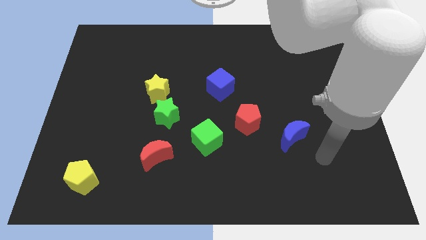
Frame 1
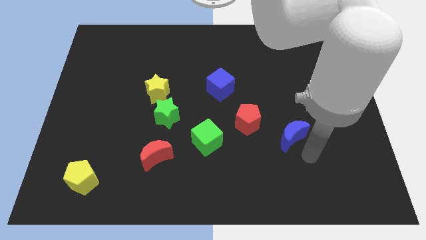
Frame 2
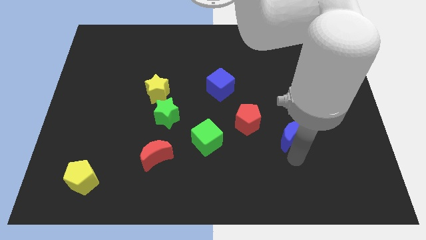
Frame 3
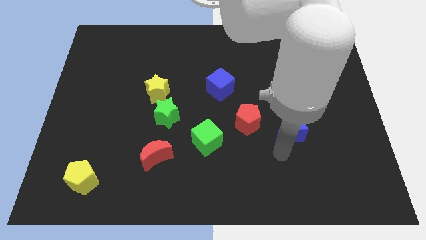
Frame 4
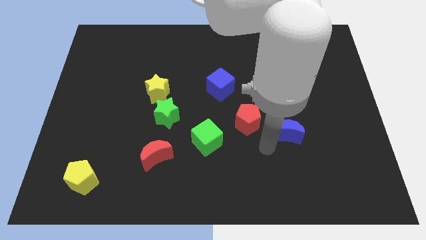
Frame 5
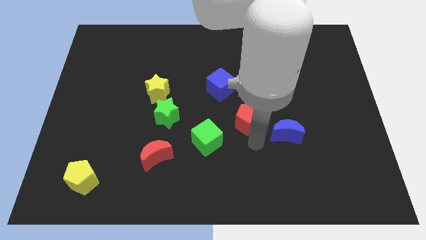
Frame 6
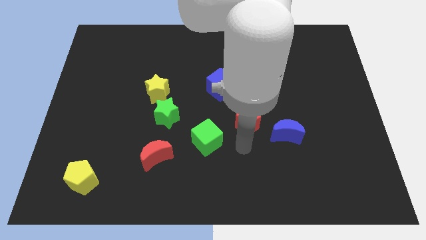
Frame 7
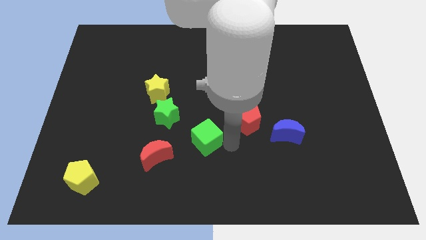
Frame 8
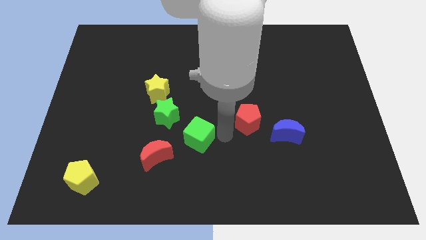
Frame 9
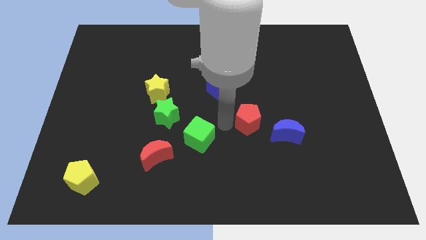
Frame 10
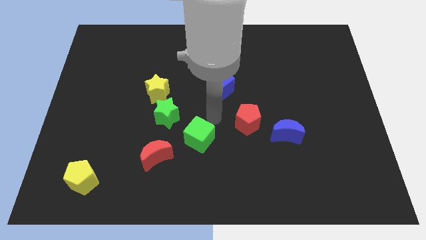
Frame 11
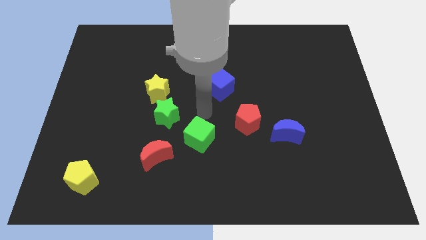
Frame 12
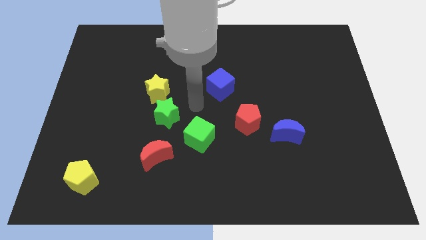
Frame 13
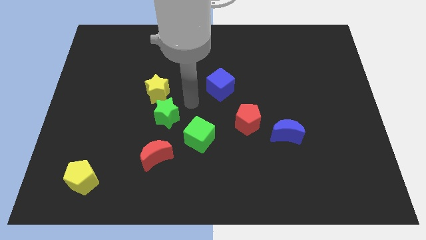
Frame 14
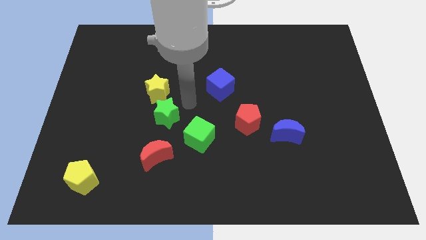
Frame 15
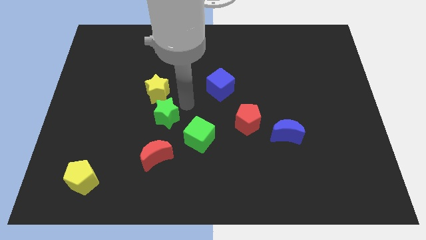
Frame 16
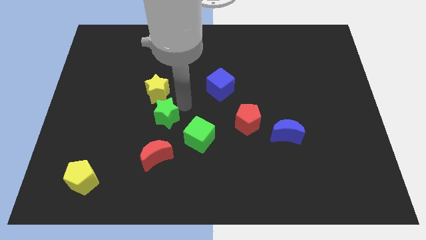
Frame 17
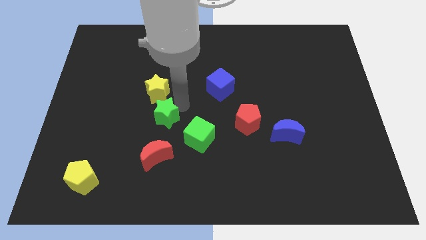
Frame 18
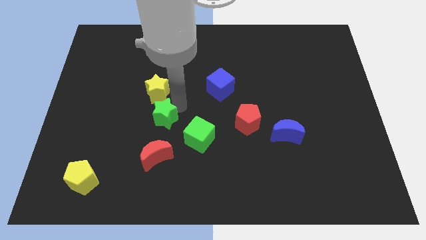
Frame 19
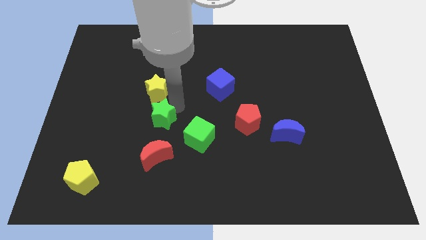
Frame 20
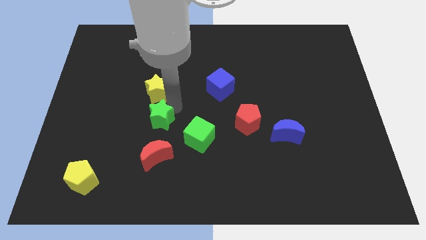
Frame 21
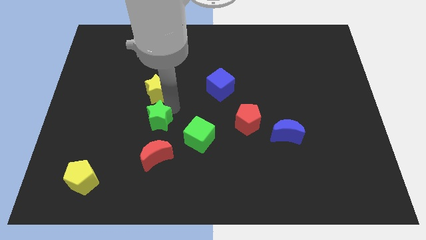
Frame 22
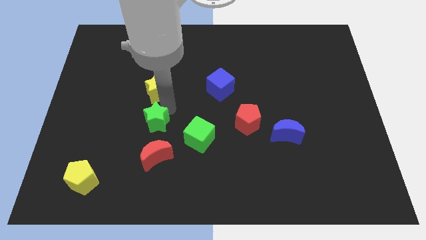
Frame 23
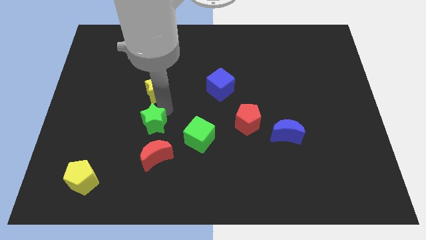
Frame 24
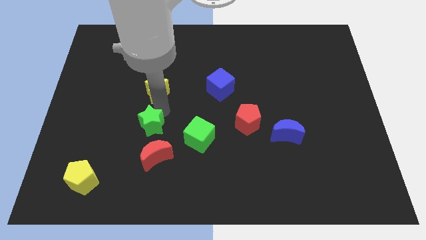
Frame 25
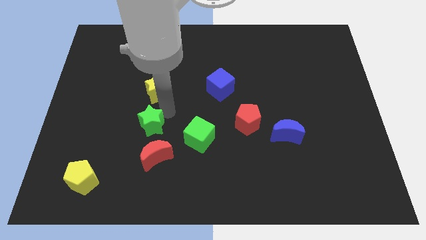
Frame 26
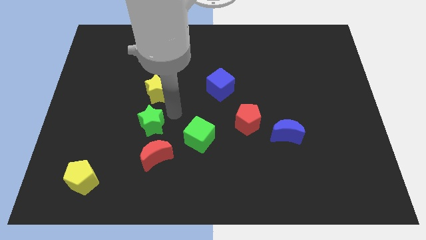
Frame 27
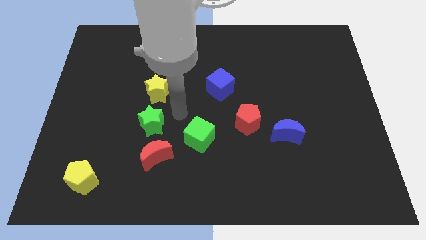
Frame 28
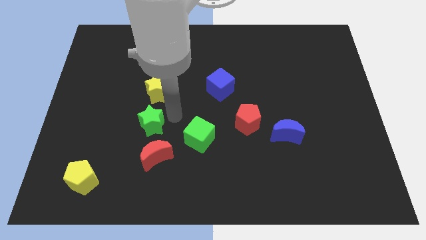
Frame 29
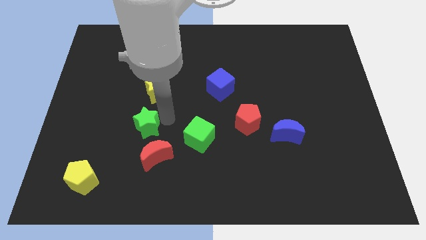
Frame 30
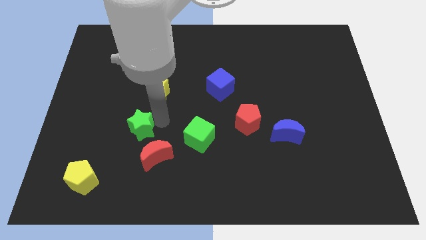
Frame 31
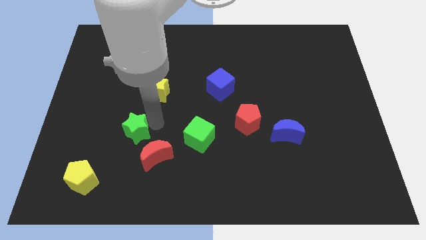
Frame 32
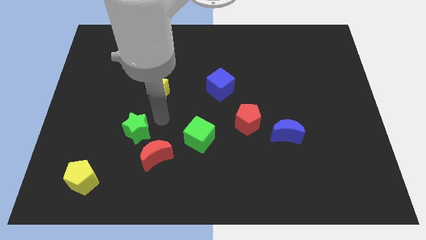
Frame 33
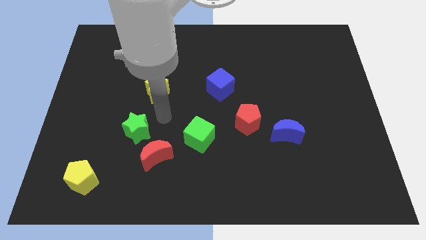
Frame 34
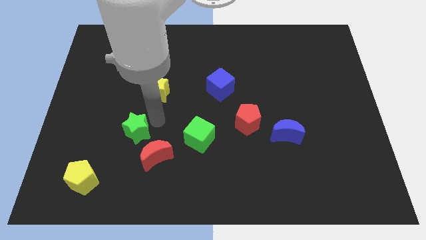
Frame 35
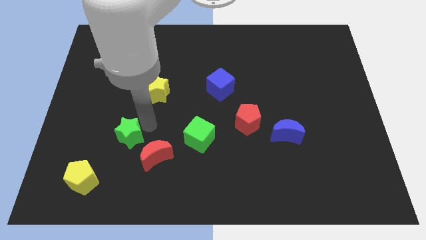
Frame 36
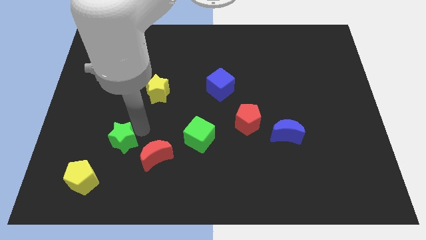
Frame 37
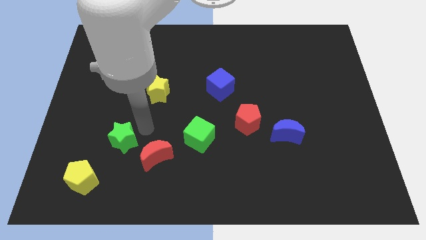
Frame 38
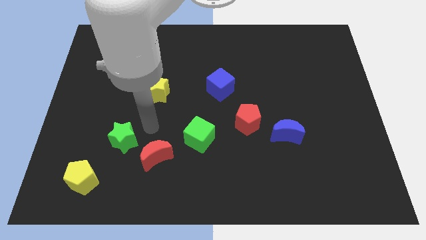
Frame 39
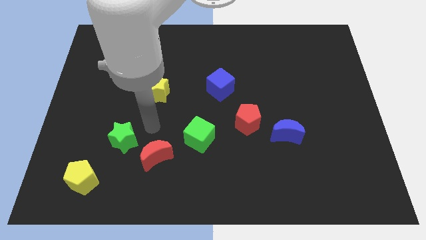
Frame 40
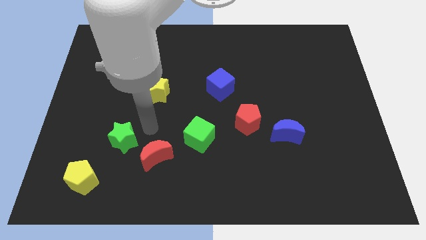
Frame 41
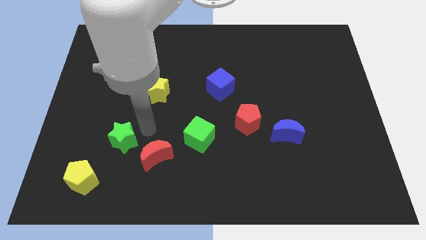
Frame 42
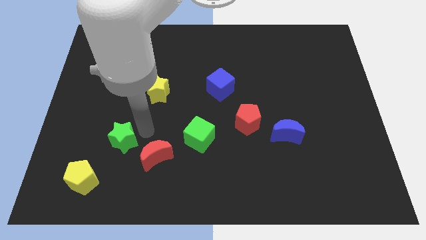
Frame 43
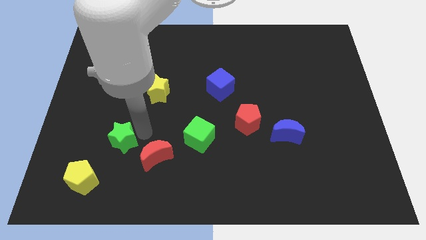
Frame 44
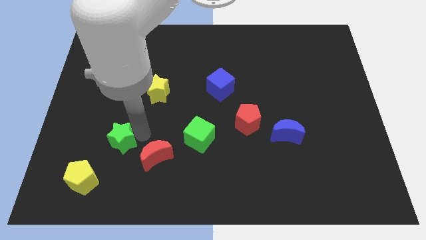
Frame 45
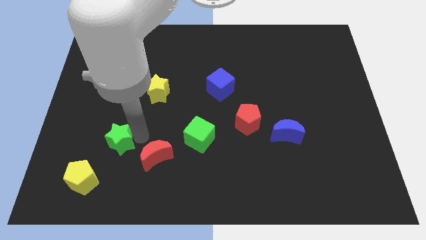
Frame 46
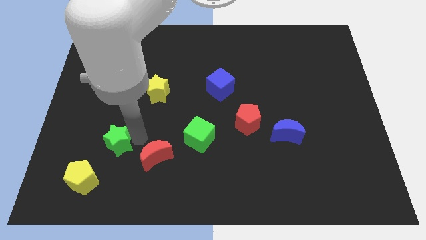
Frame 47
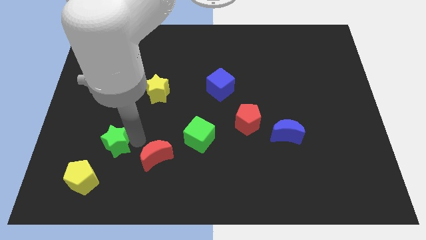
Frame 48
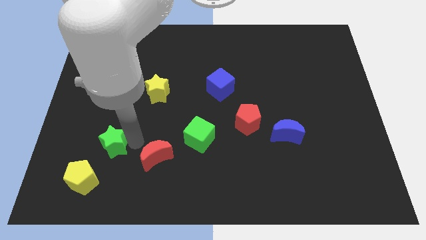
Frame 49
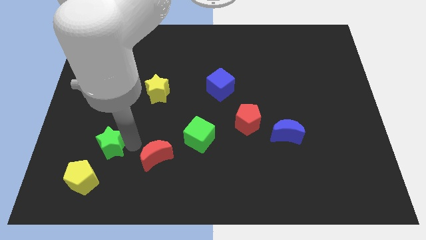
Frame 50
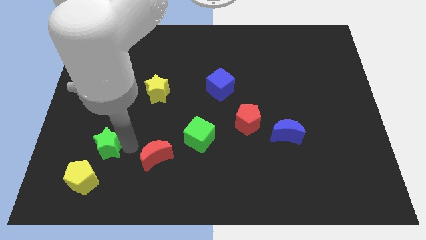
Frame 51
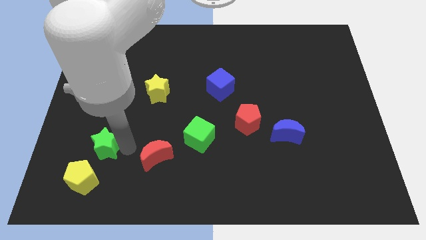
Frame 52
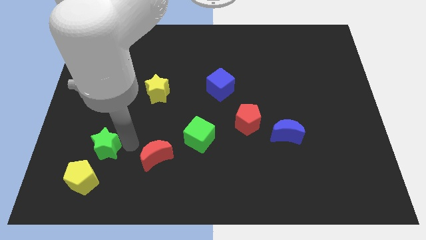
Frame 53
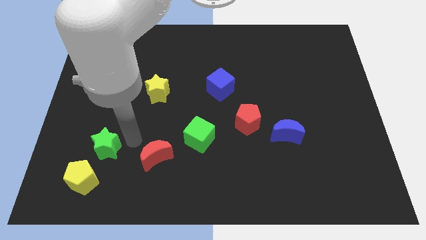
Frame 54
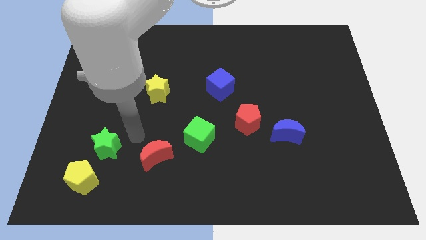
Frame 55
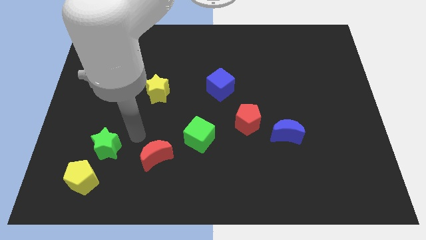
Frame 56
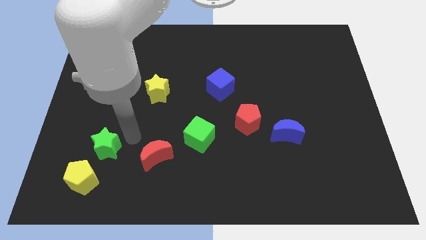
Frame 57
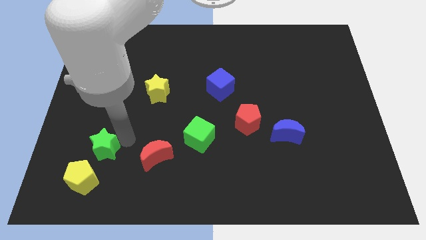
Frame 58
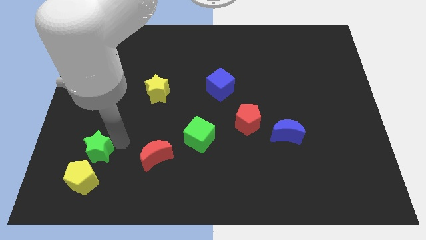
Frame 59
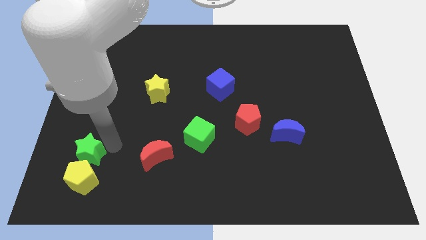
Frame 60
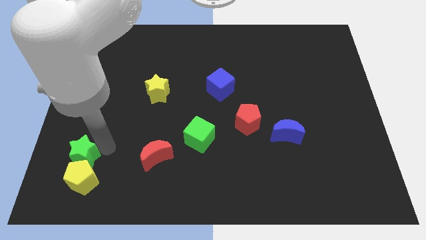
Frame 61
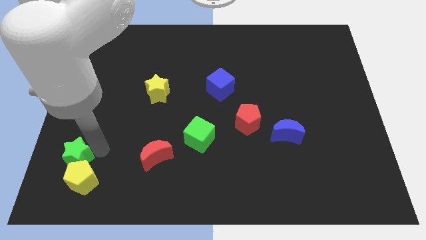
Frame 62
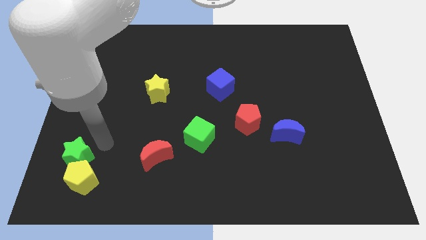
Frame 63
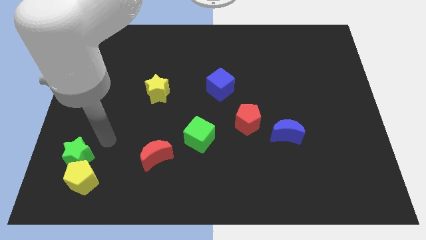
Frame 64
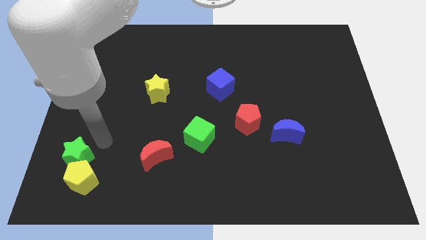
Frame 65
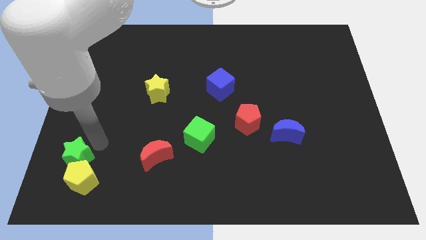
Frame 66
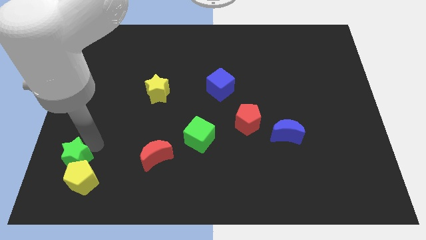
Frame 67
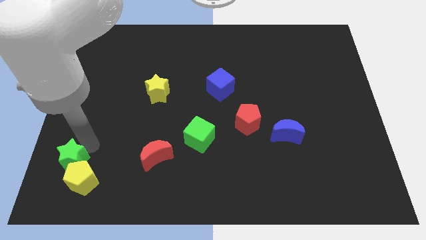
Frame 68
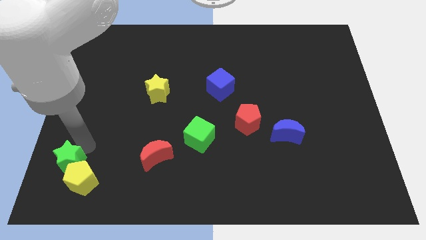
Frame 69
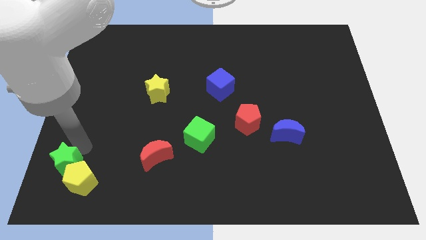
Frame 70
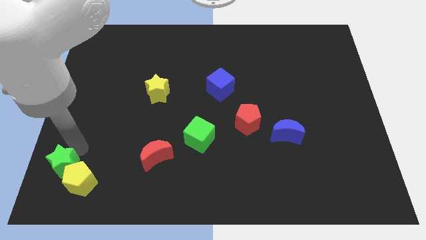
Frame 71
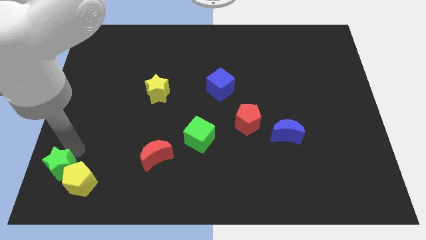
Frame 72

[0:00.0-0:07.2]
move the green star to the bottom left of the board
